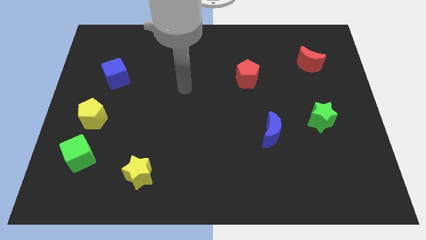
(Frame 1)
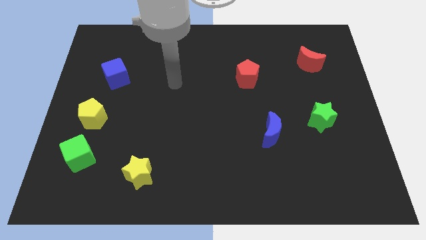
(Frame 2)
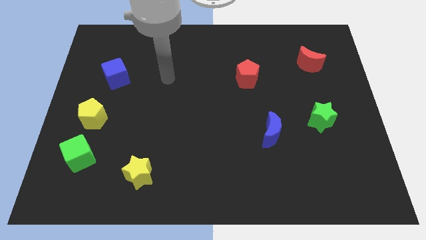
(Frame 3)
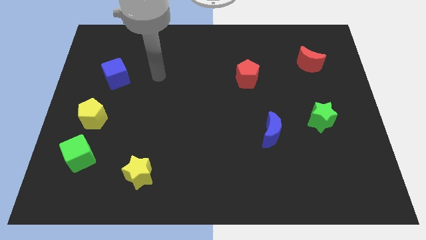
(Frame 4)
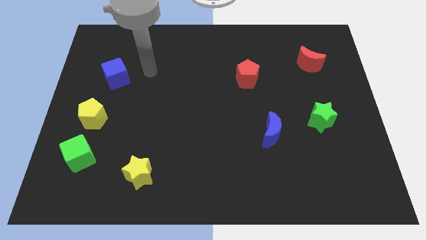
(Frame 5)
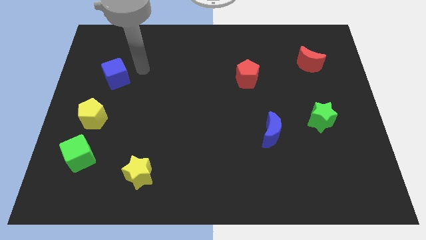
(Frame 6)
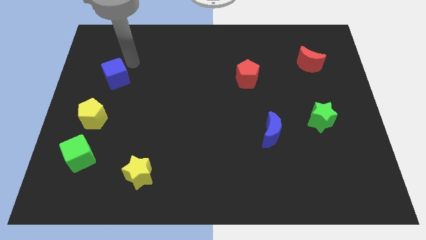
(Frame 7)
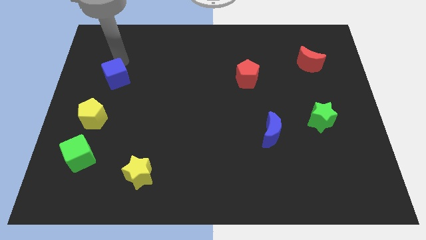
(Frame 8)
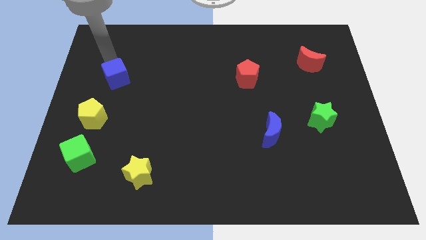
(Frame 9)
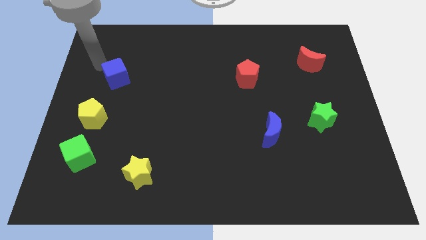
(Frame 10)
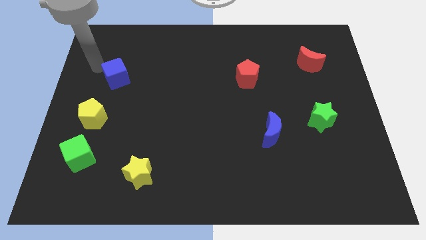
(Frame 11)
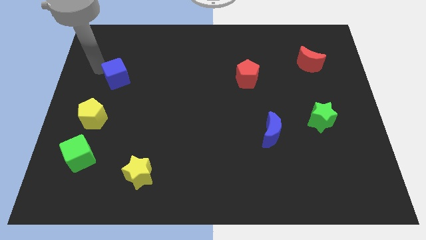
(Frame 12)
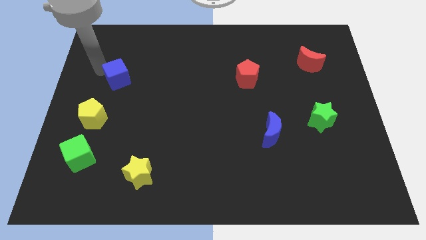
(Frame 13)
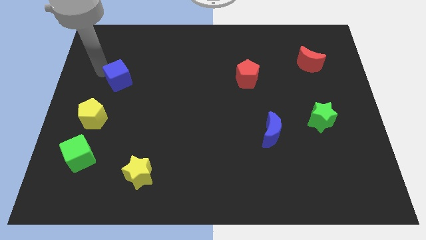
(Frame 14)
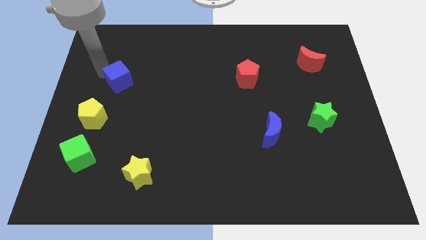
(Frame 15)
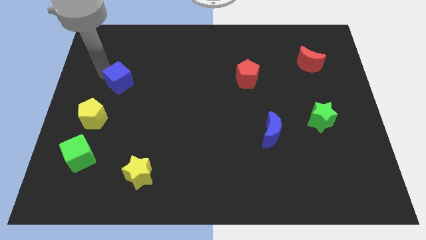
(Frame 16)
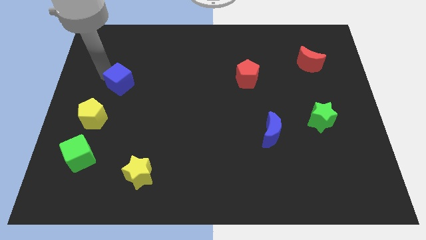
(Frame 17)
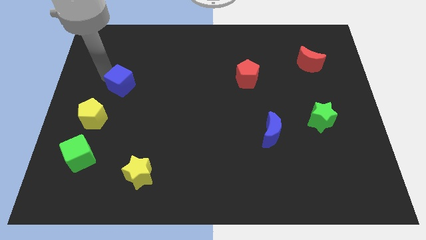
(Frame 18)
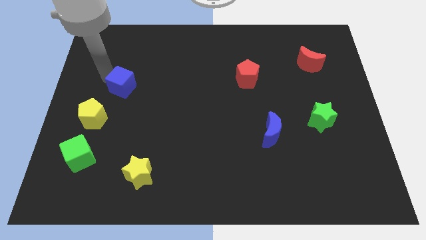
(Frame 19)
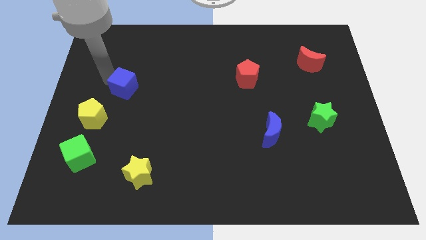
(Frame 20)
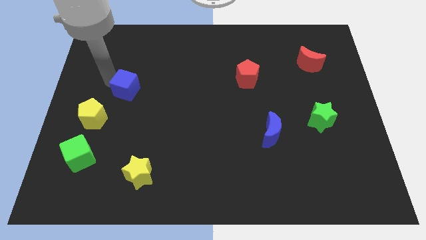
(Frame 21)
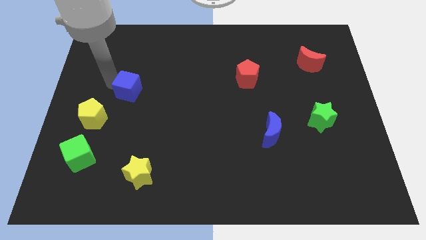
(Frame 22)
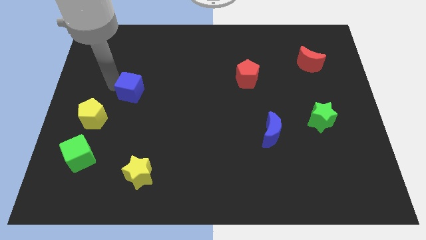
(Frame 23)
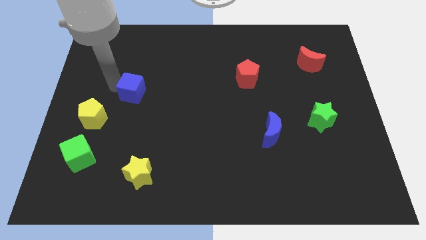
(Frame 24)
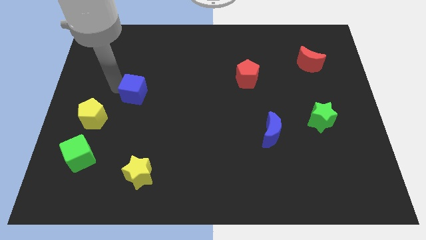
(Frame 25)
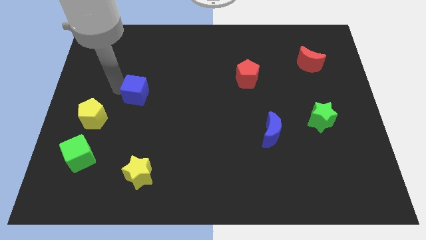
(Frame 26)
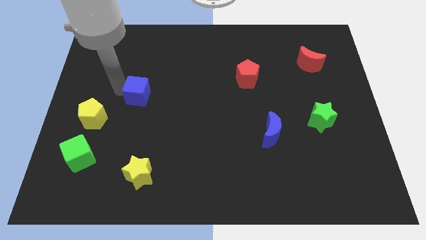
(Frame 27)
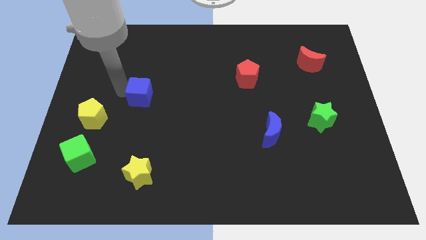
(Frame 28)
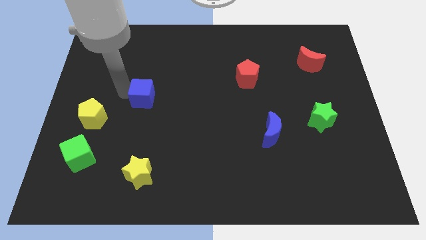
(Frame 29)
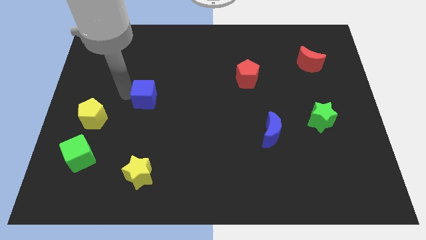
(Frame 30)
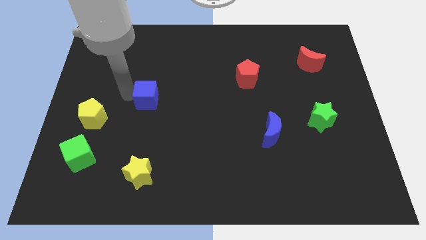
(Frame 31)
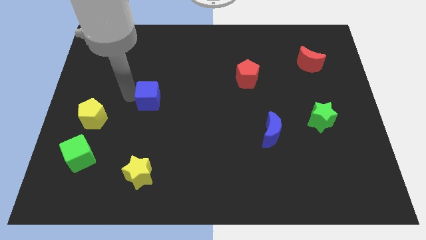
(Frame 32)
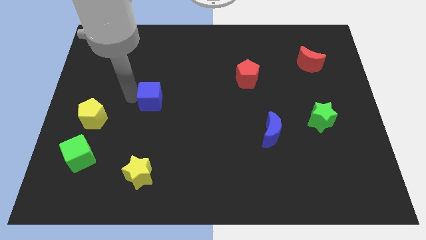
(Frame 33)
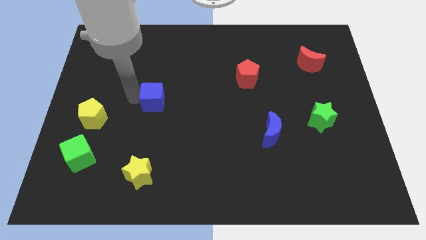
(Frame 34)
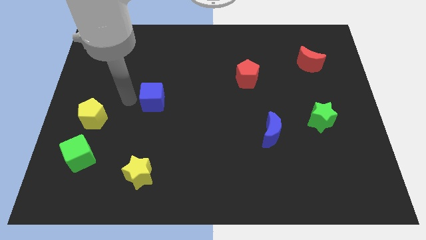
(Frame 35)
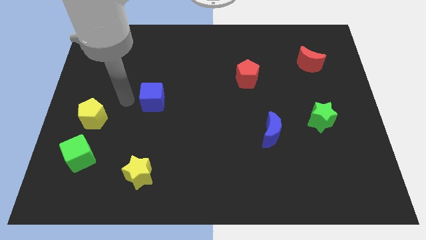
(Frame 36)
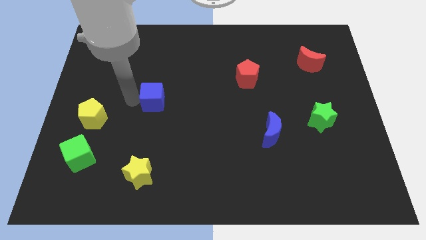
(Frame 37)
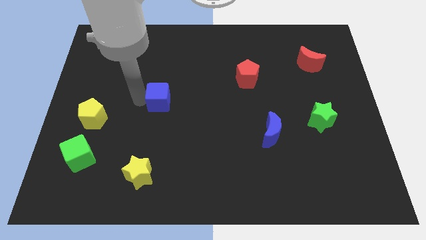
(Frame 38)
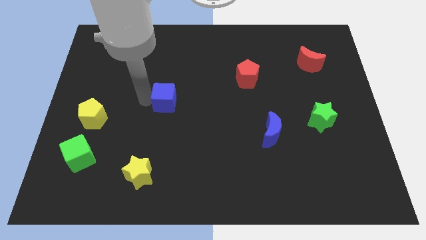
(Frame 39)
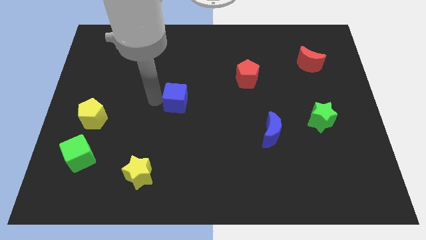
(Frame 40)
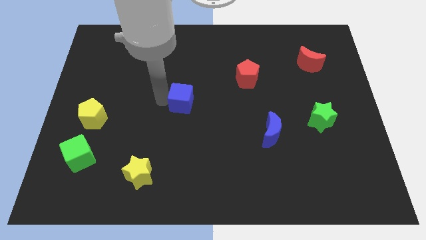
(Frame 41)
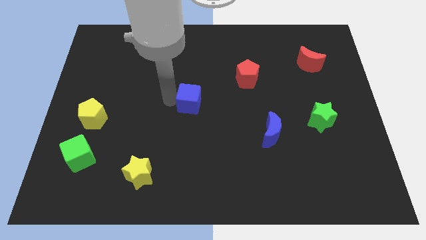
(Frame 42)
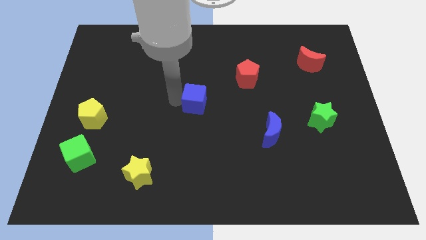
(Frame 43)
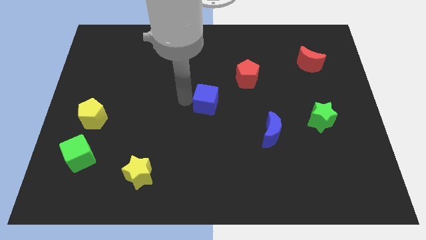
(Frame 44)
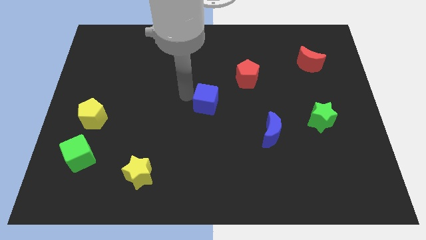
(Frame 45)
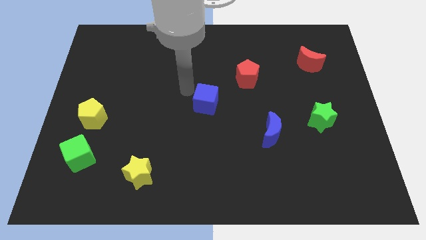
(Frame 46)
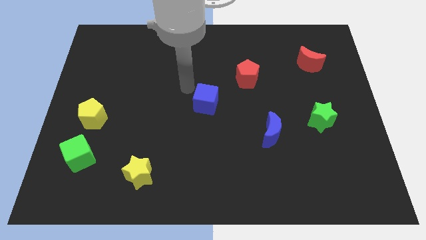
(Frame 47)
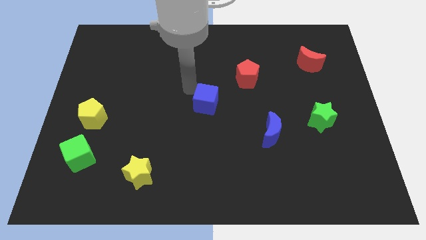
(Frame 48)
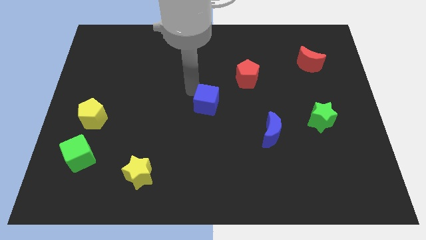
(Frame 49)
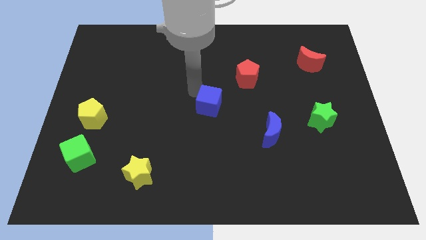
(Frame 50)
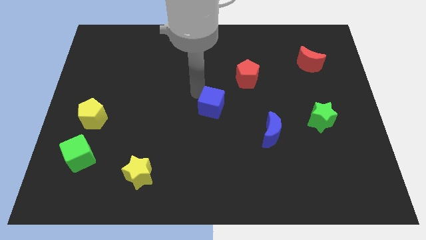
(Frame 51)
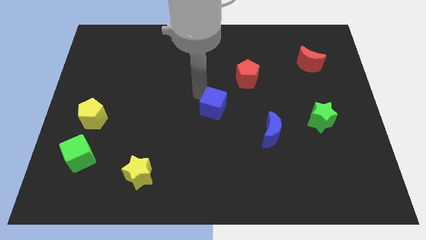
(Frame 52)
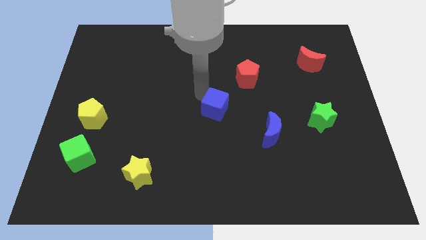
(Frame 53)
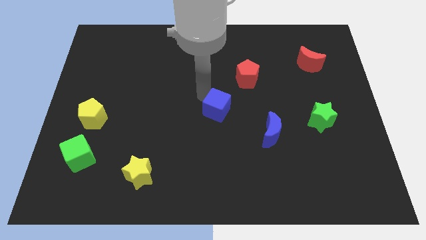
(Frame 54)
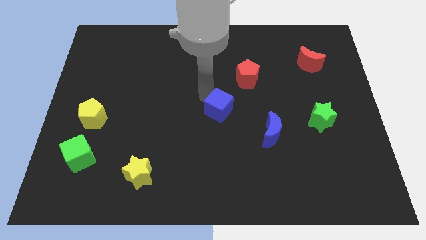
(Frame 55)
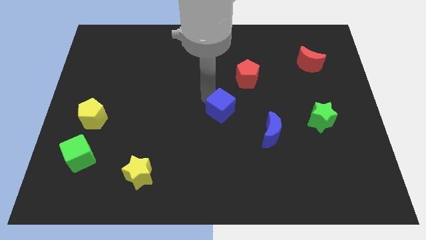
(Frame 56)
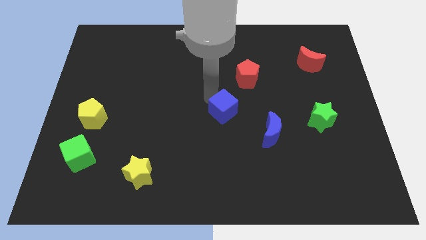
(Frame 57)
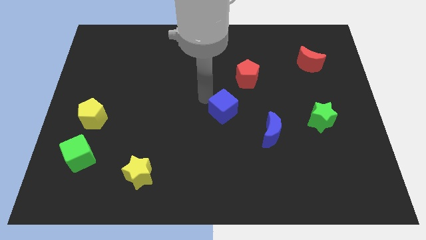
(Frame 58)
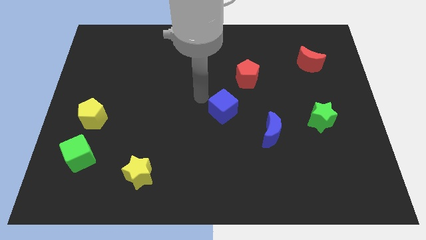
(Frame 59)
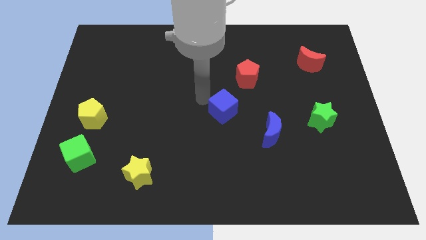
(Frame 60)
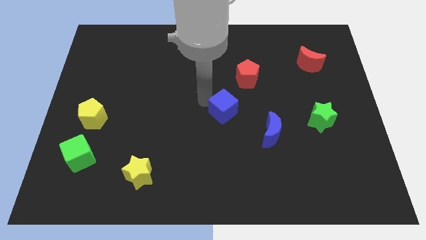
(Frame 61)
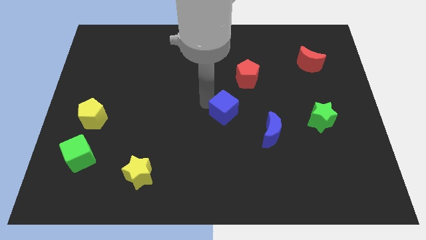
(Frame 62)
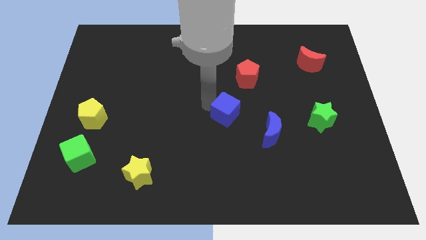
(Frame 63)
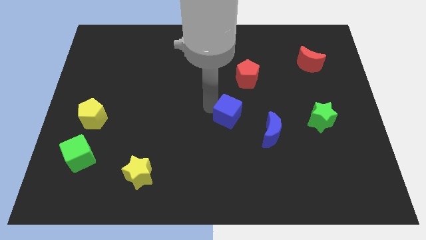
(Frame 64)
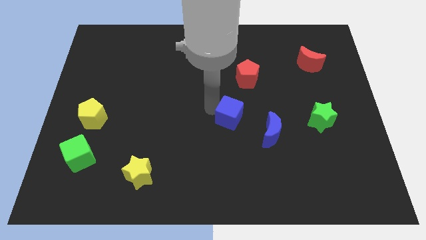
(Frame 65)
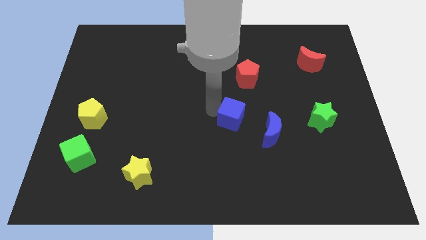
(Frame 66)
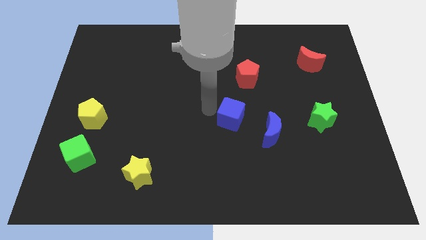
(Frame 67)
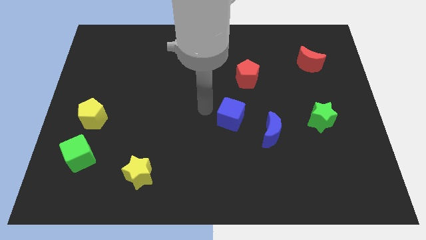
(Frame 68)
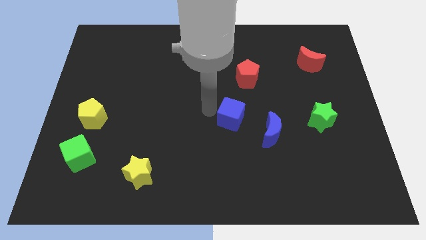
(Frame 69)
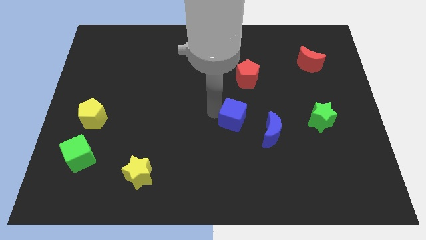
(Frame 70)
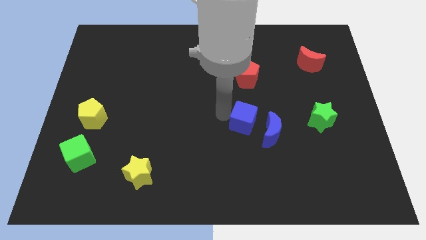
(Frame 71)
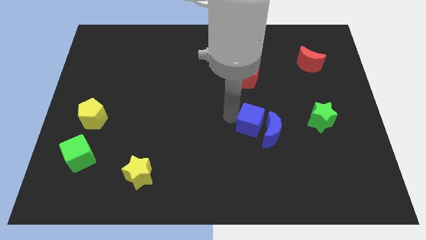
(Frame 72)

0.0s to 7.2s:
put the blue cube next to the blue moon
